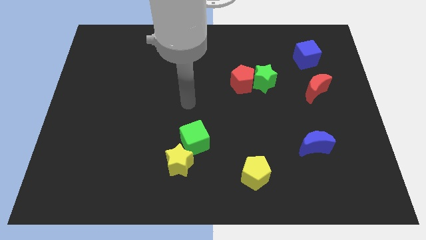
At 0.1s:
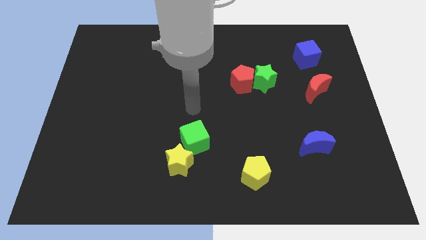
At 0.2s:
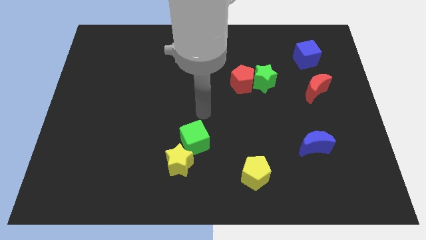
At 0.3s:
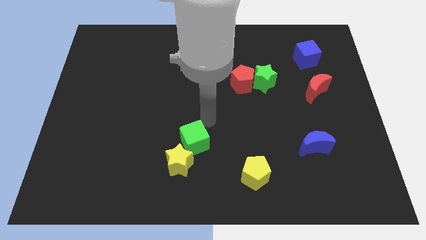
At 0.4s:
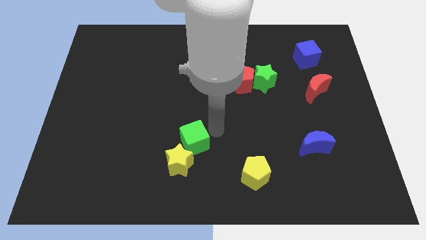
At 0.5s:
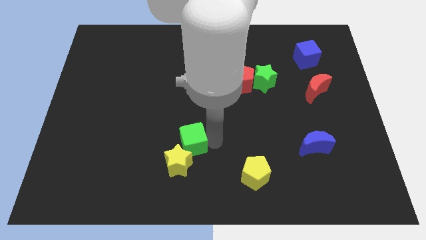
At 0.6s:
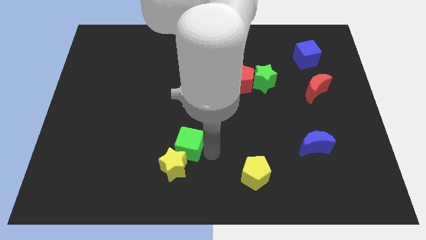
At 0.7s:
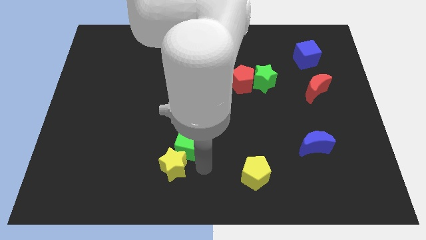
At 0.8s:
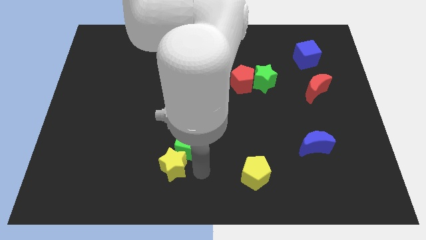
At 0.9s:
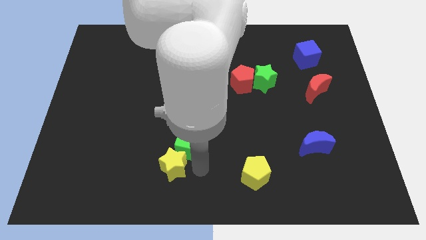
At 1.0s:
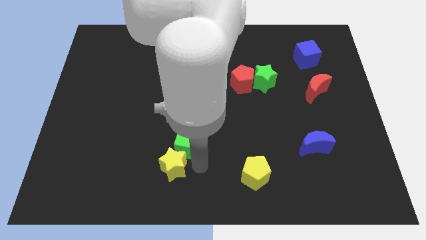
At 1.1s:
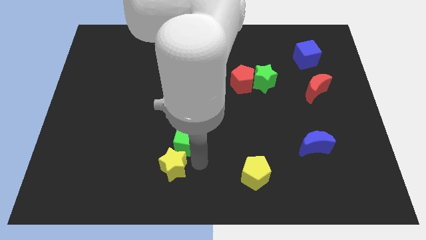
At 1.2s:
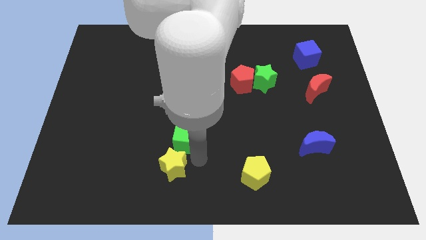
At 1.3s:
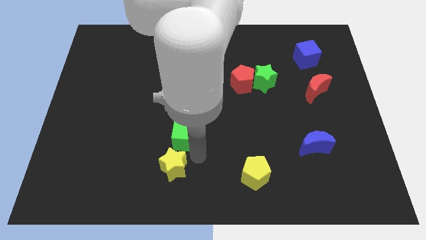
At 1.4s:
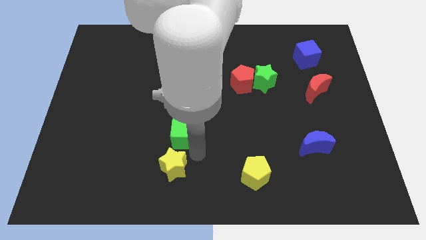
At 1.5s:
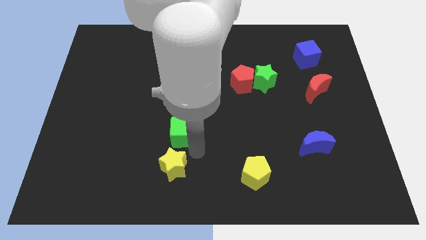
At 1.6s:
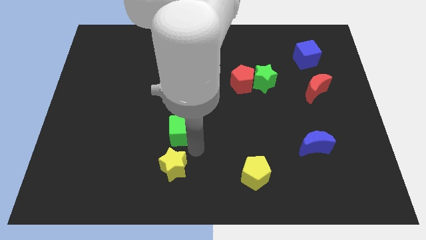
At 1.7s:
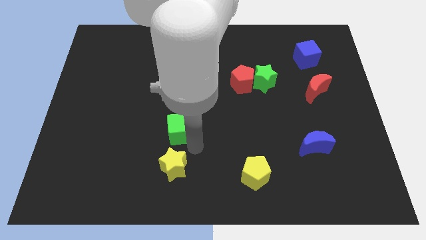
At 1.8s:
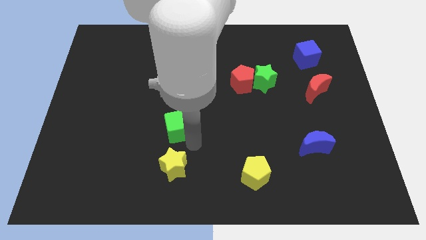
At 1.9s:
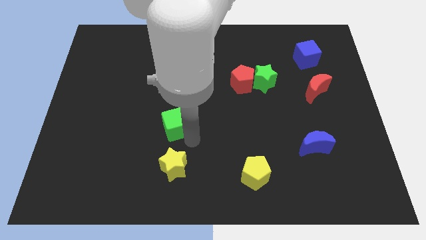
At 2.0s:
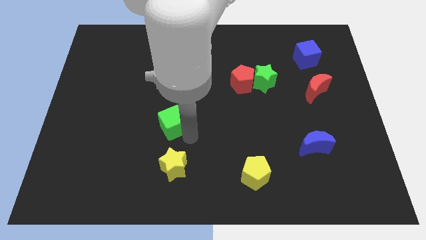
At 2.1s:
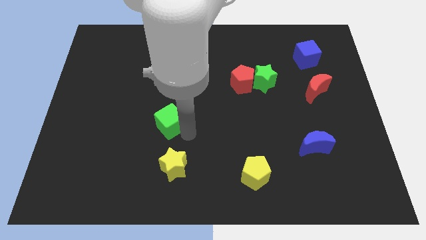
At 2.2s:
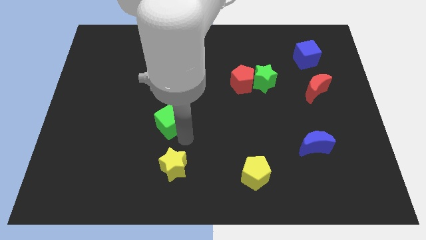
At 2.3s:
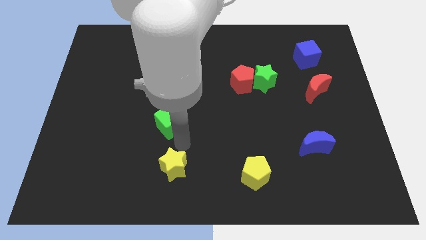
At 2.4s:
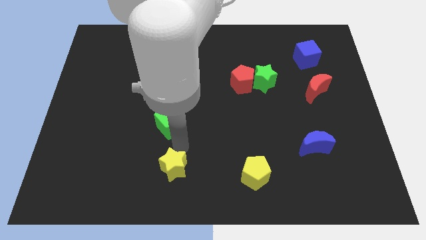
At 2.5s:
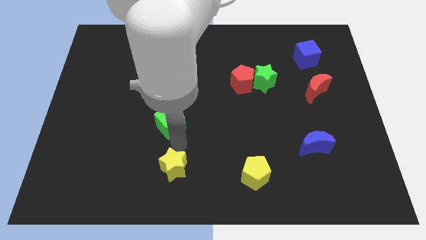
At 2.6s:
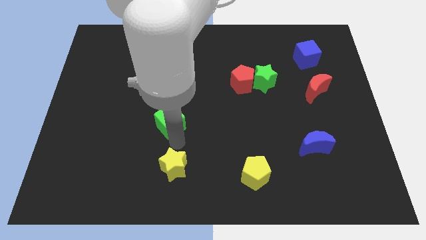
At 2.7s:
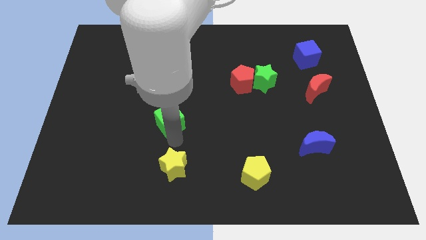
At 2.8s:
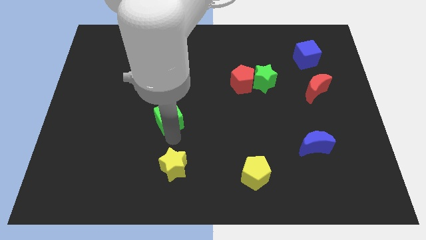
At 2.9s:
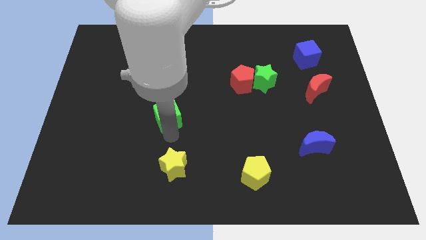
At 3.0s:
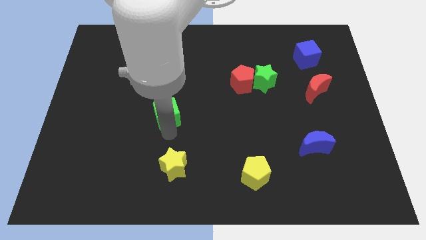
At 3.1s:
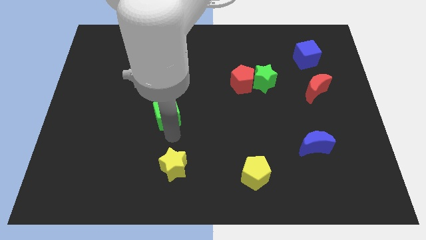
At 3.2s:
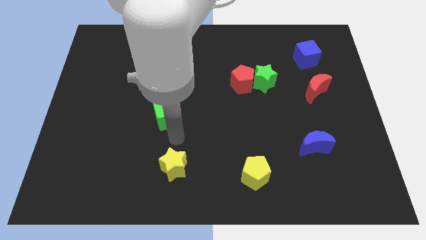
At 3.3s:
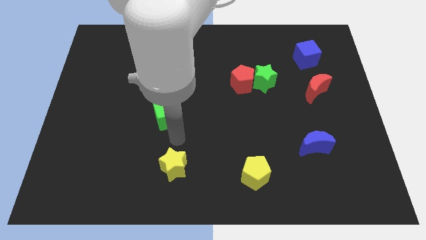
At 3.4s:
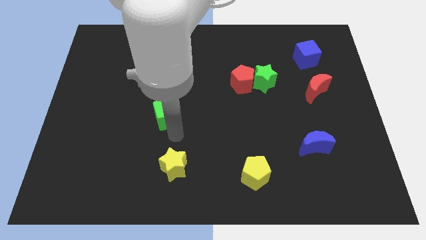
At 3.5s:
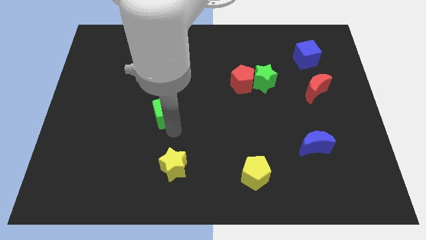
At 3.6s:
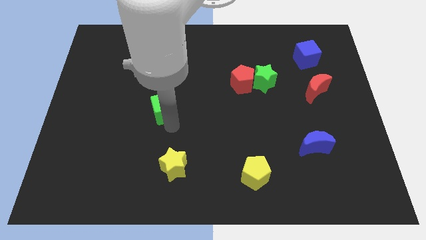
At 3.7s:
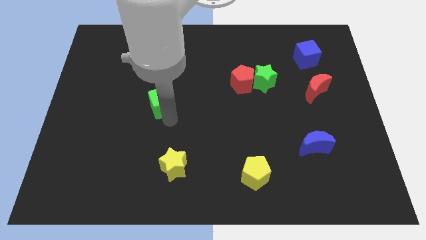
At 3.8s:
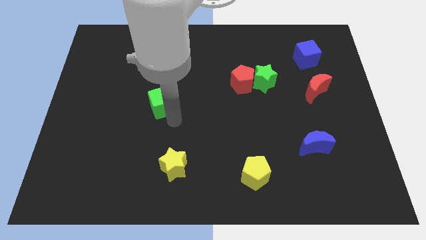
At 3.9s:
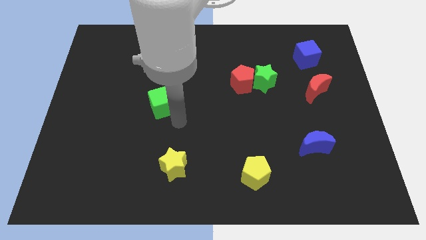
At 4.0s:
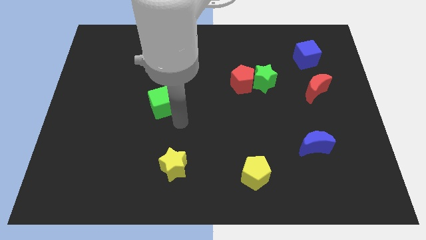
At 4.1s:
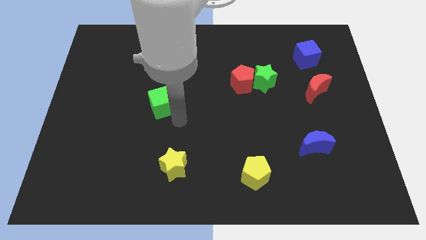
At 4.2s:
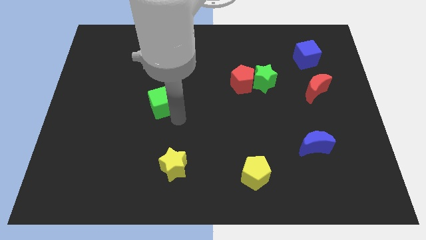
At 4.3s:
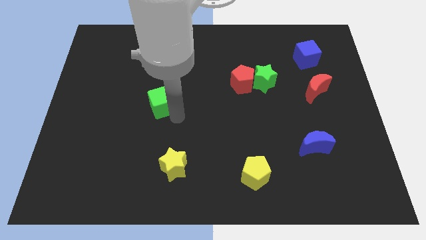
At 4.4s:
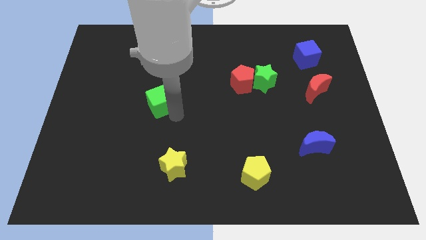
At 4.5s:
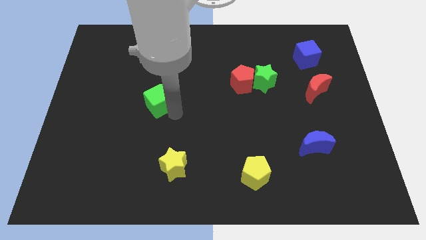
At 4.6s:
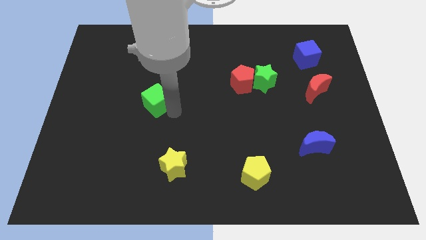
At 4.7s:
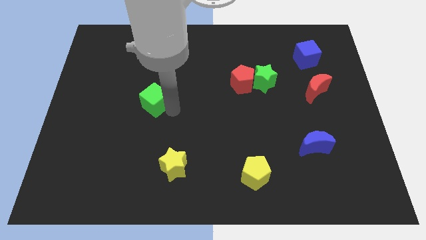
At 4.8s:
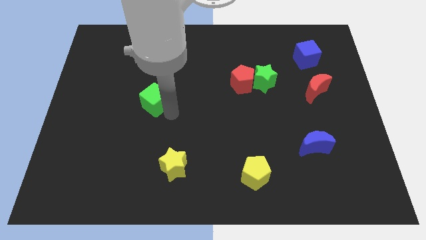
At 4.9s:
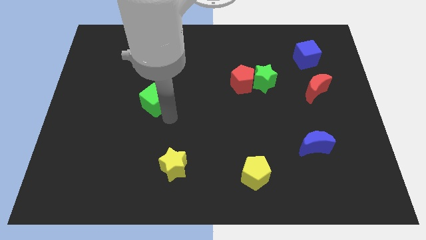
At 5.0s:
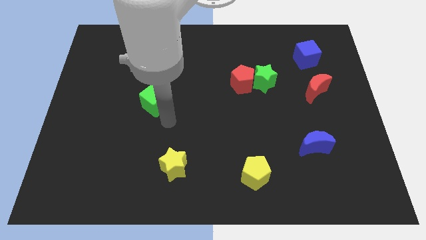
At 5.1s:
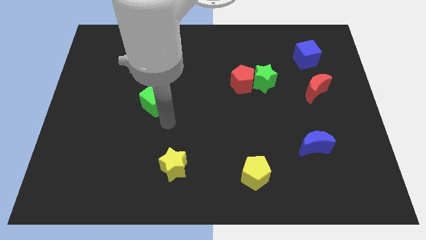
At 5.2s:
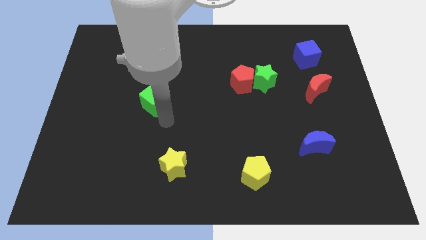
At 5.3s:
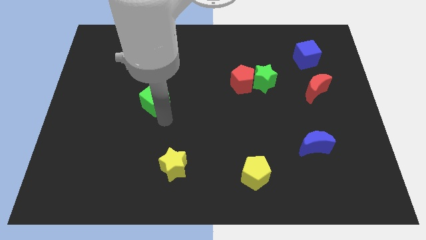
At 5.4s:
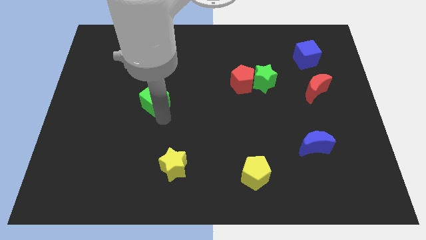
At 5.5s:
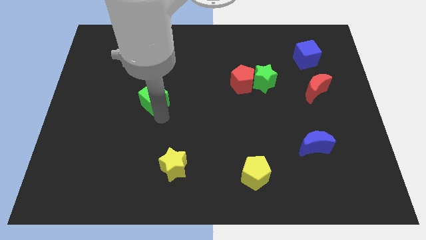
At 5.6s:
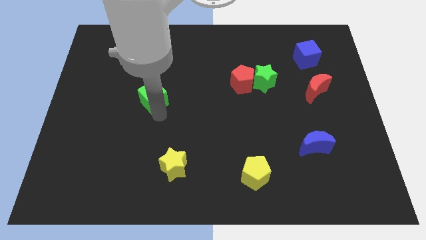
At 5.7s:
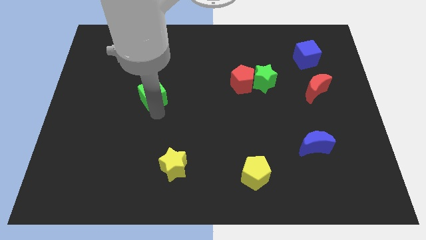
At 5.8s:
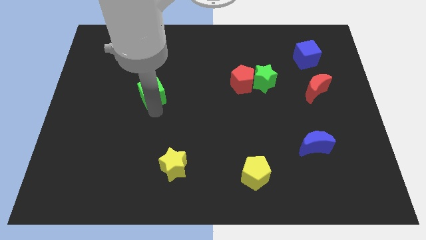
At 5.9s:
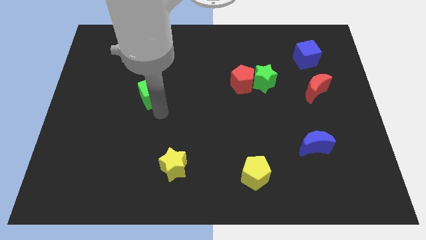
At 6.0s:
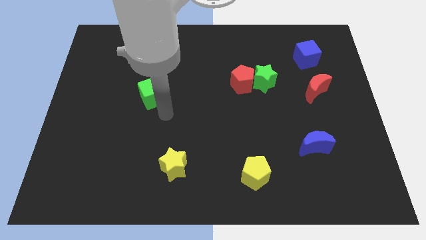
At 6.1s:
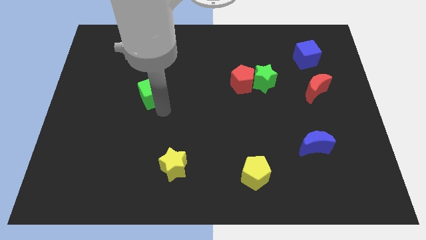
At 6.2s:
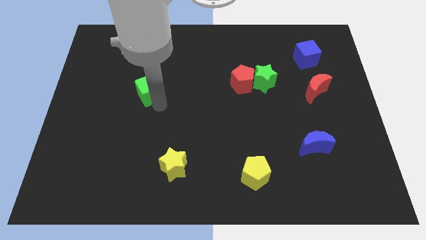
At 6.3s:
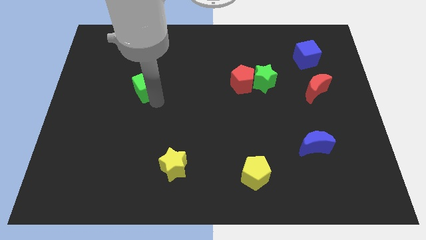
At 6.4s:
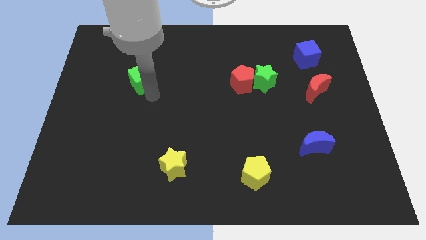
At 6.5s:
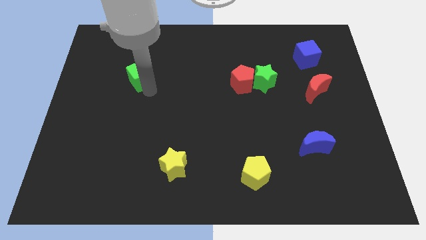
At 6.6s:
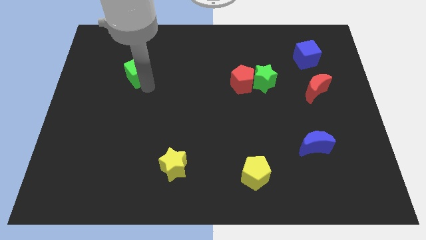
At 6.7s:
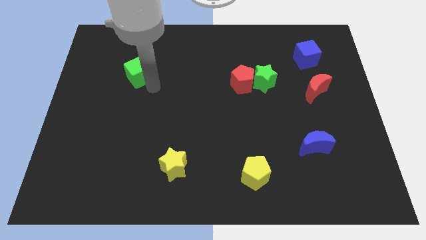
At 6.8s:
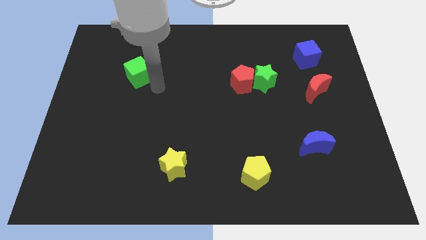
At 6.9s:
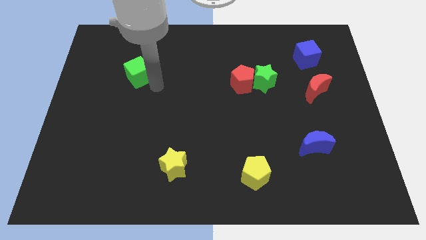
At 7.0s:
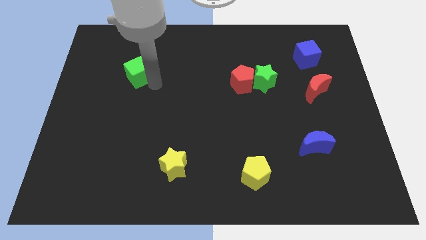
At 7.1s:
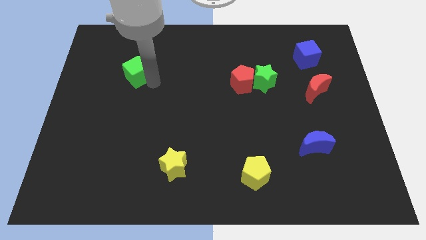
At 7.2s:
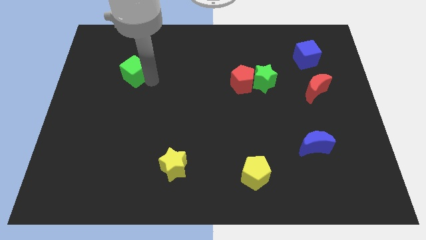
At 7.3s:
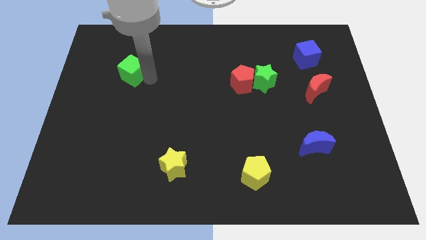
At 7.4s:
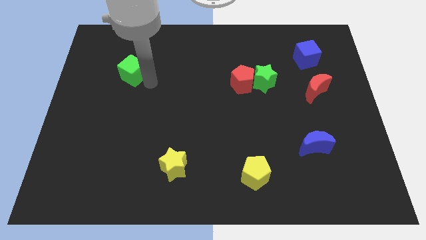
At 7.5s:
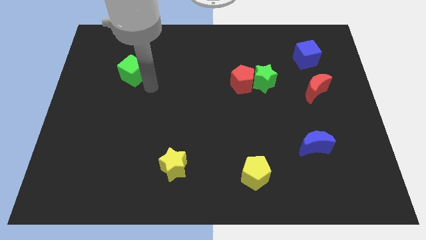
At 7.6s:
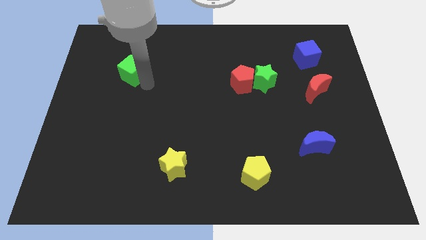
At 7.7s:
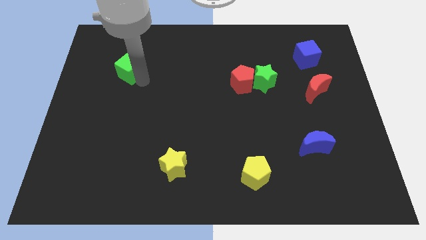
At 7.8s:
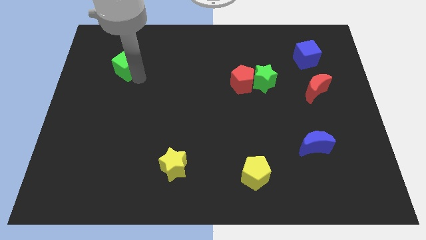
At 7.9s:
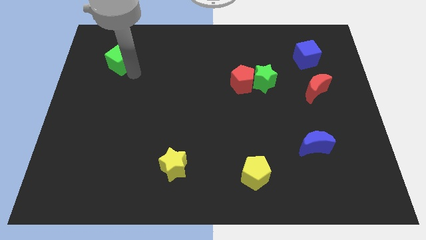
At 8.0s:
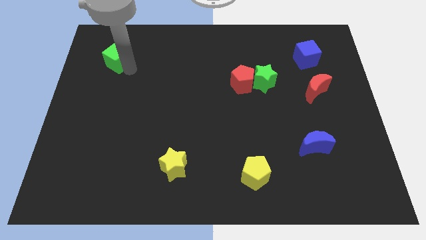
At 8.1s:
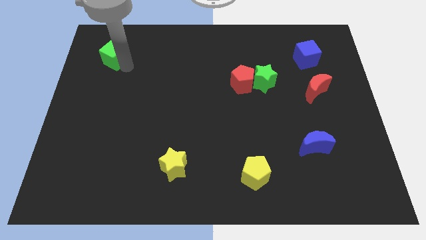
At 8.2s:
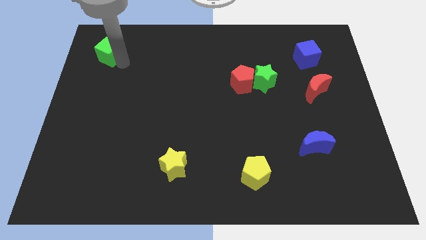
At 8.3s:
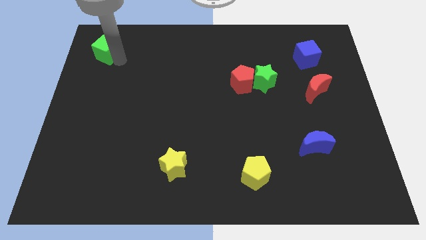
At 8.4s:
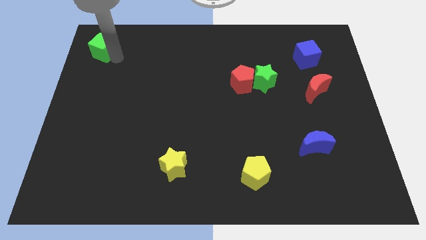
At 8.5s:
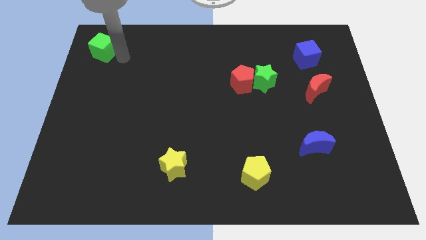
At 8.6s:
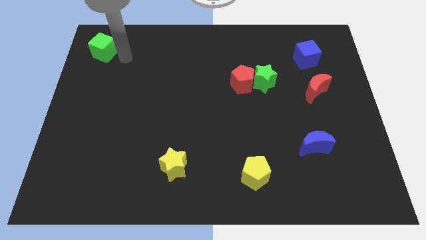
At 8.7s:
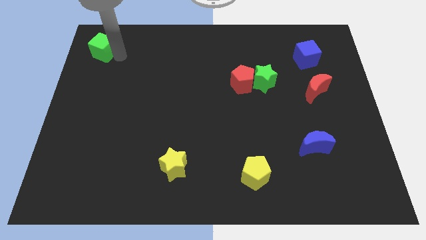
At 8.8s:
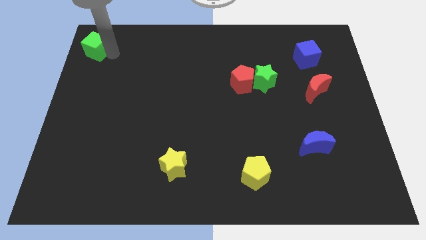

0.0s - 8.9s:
move the green cube to the top left
